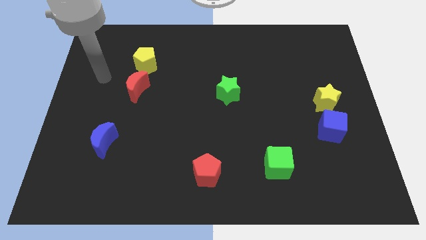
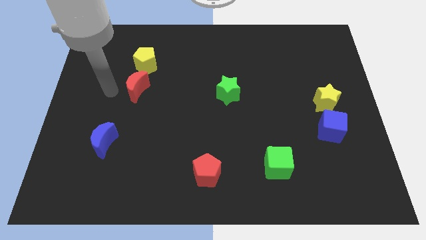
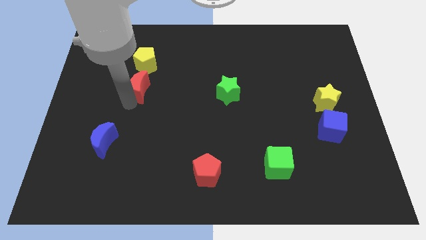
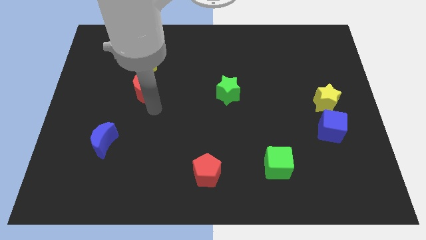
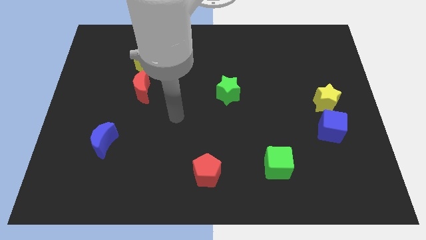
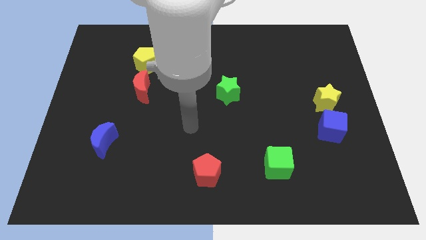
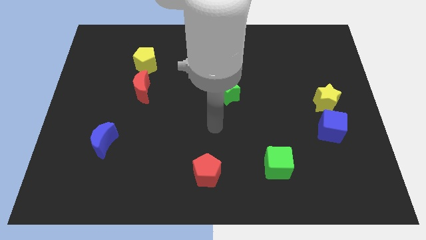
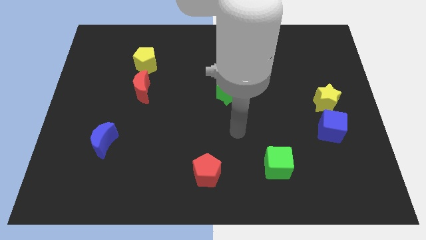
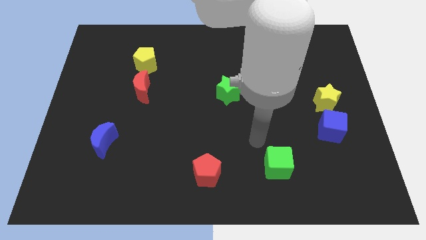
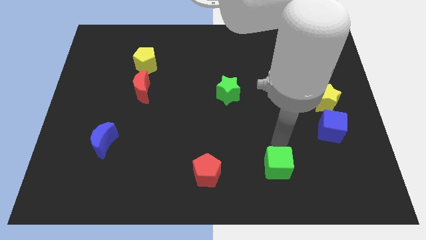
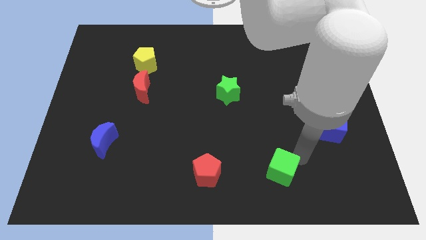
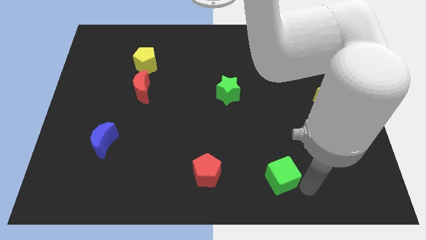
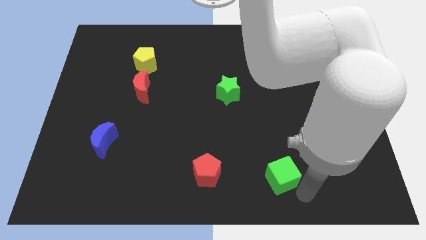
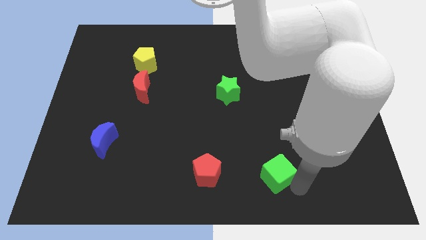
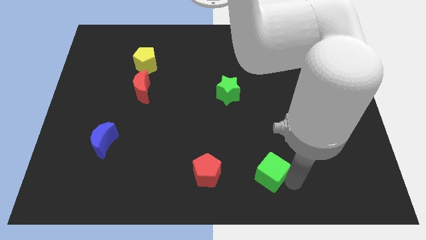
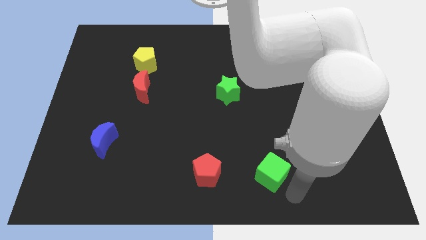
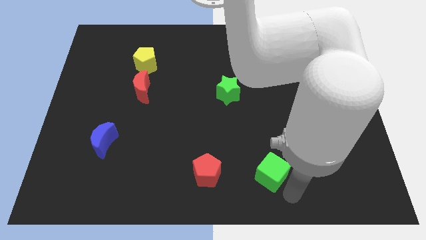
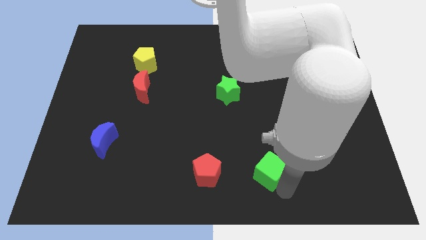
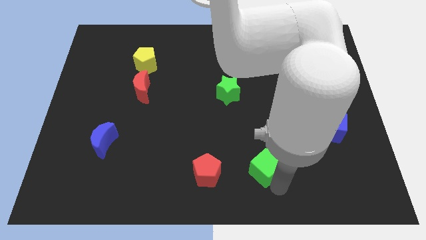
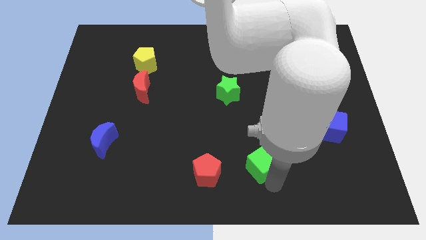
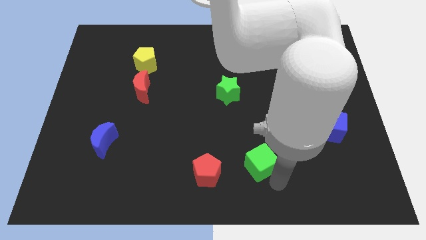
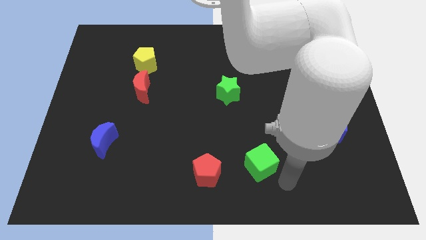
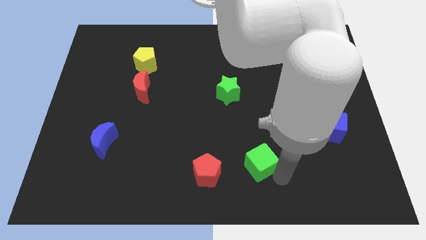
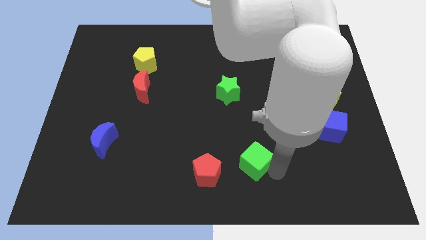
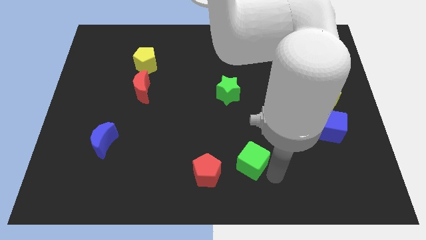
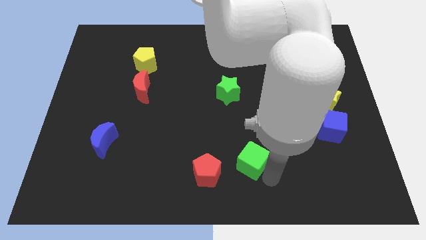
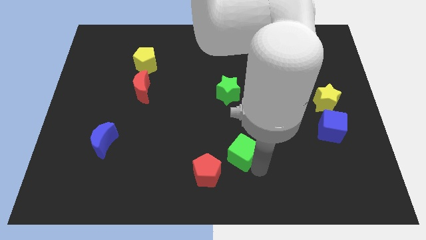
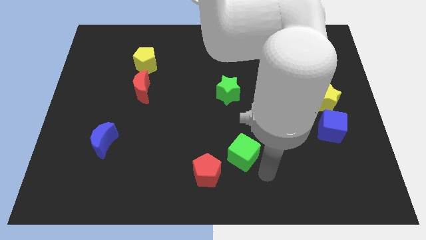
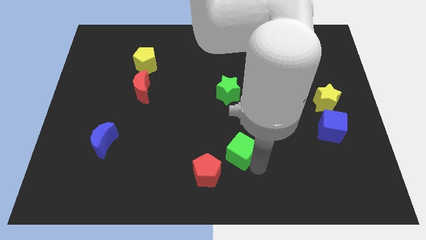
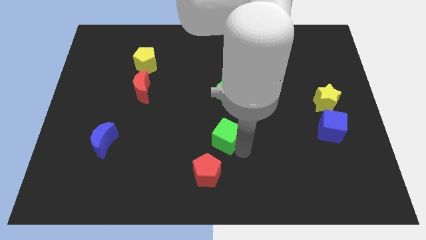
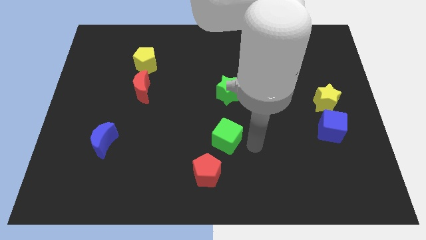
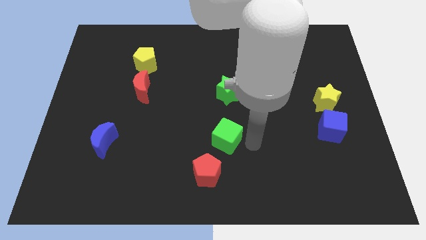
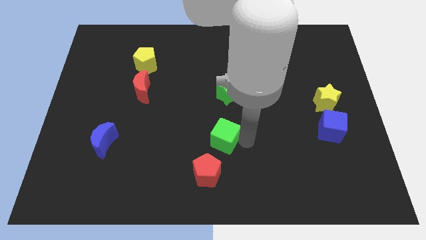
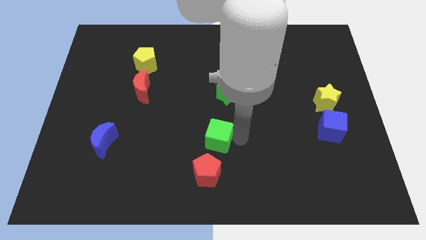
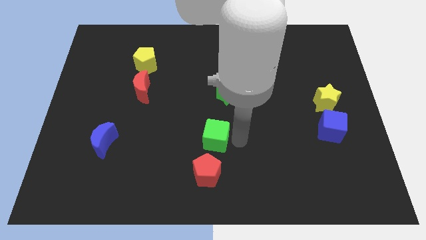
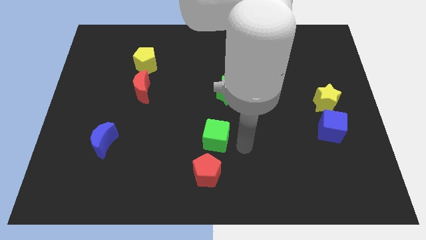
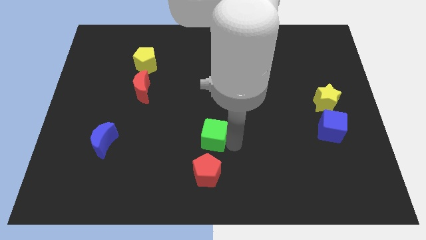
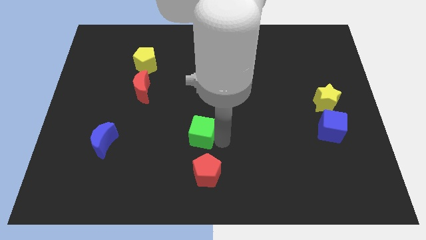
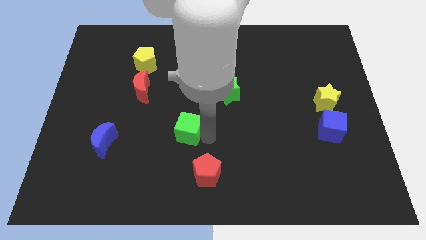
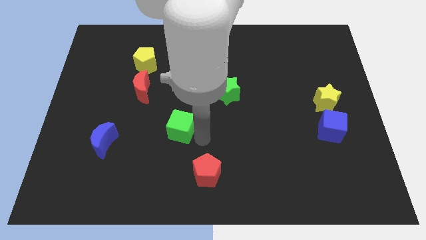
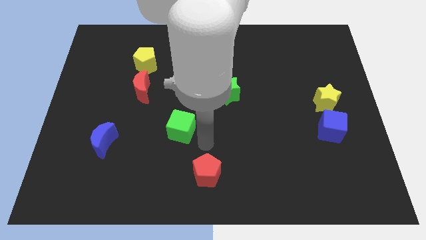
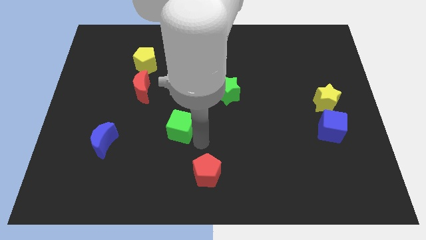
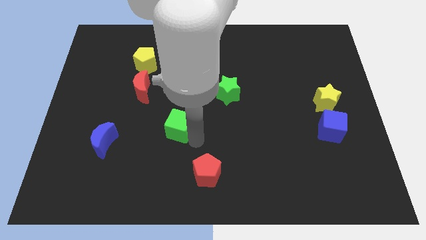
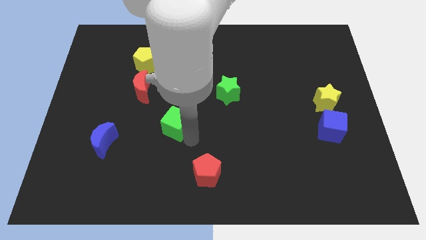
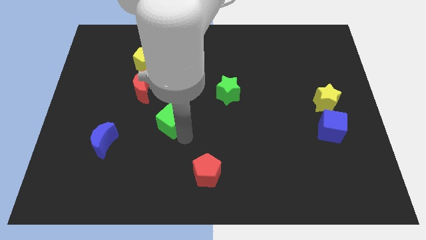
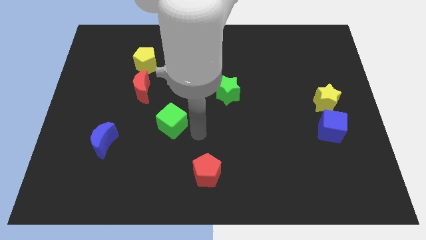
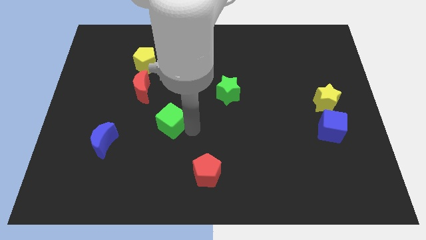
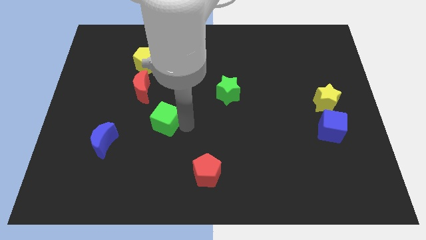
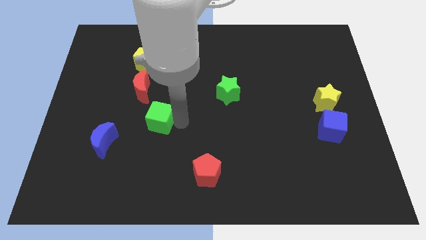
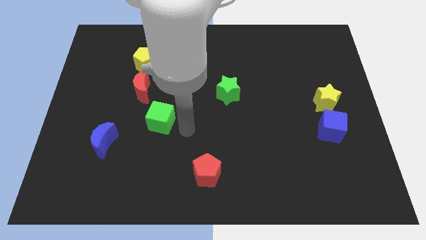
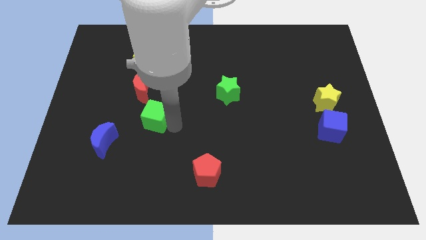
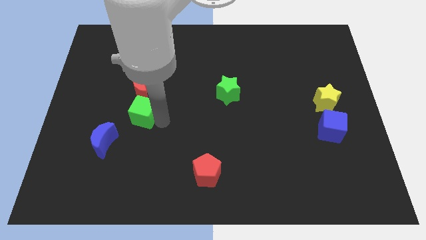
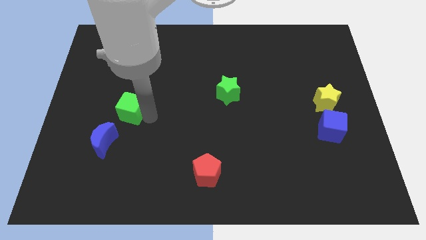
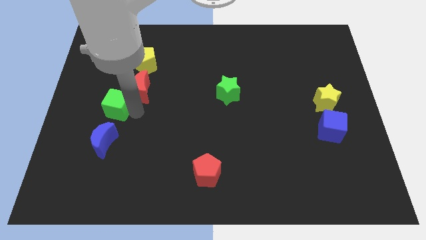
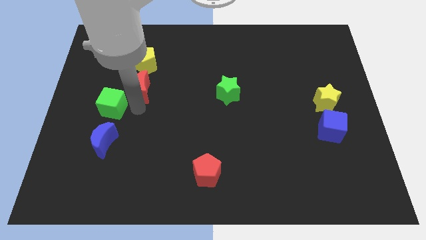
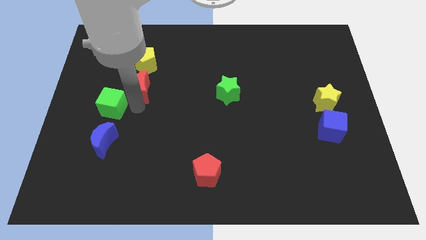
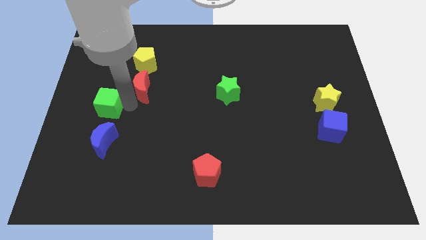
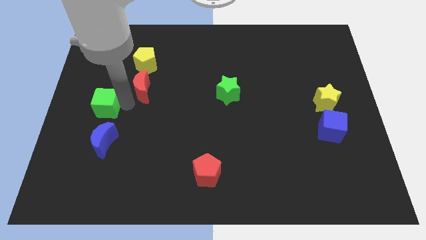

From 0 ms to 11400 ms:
slide the green cube to the left side
